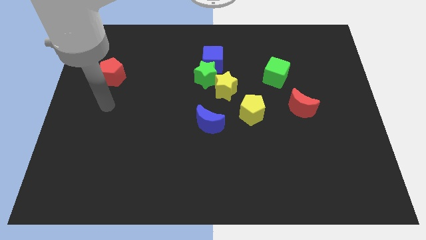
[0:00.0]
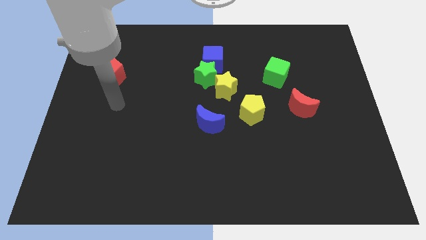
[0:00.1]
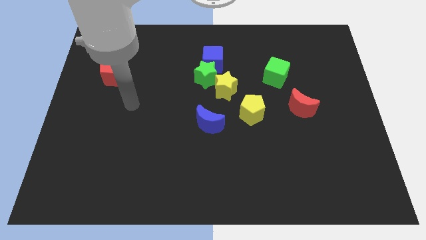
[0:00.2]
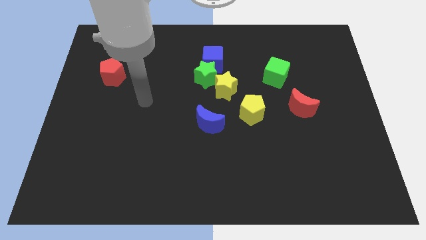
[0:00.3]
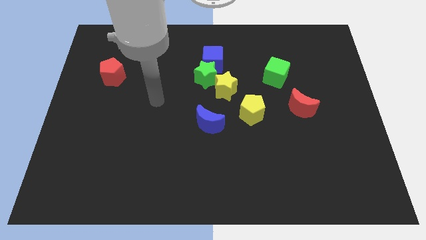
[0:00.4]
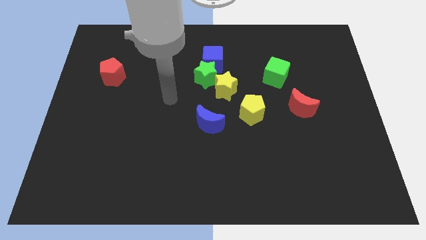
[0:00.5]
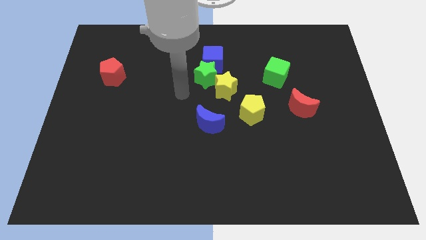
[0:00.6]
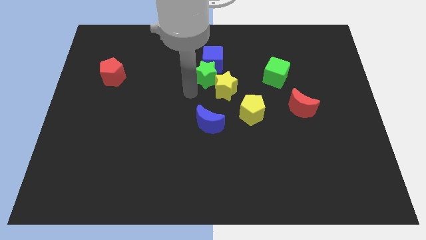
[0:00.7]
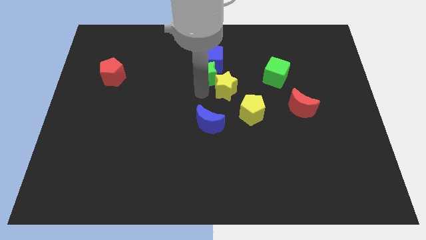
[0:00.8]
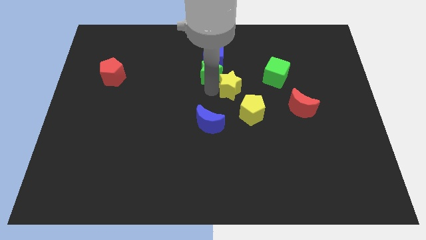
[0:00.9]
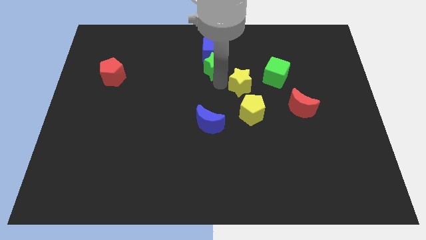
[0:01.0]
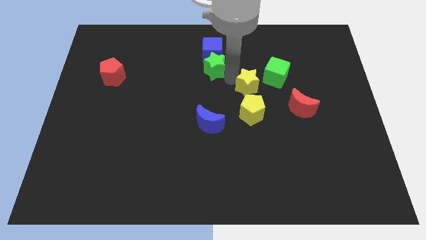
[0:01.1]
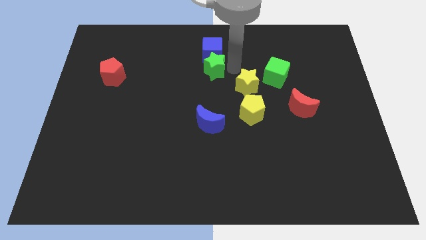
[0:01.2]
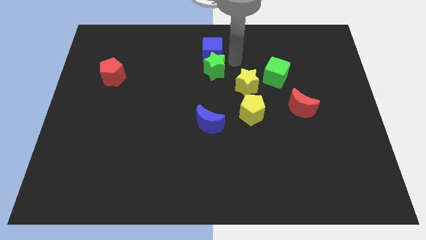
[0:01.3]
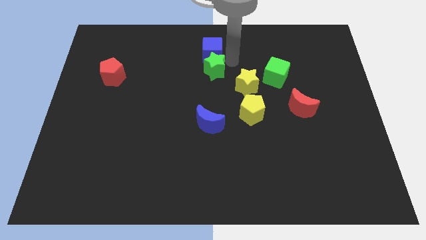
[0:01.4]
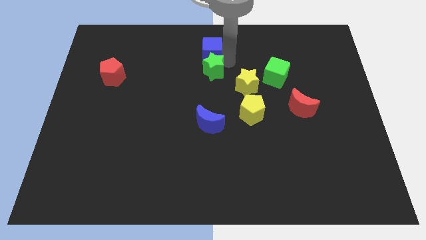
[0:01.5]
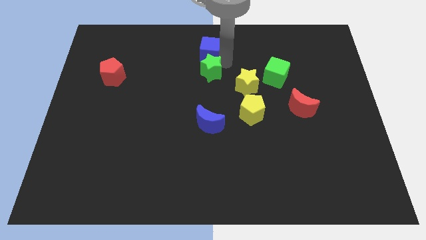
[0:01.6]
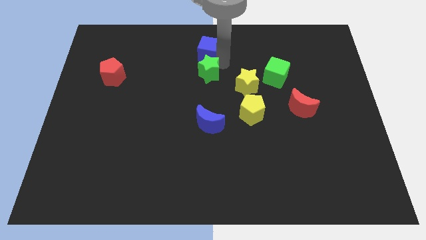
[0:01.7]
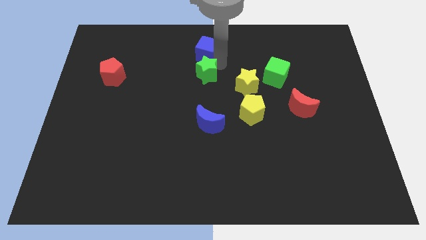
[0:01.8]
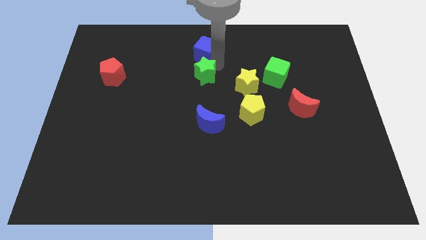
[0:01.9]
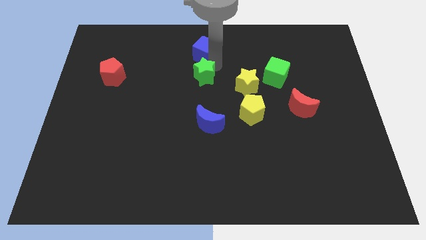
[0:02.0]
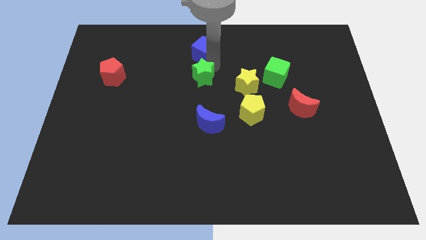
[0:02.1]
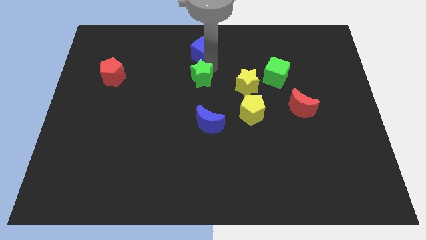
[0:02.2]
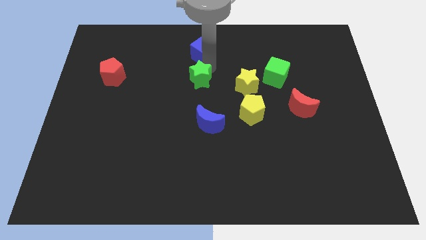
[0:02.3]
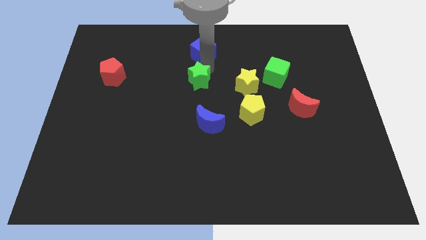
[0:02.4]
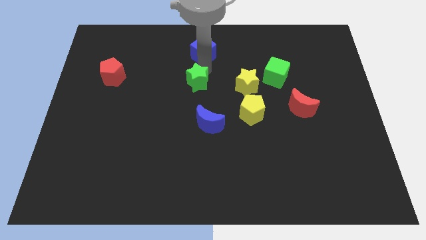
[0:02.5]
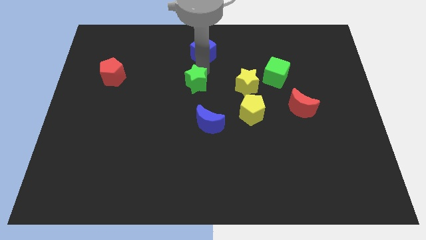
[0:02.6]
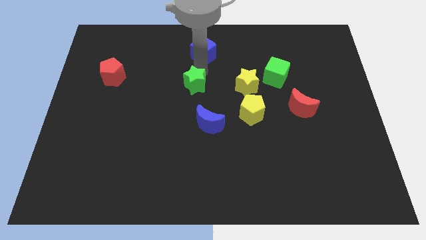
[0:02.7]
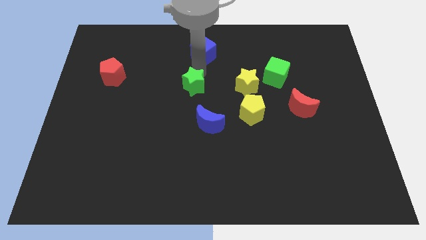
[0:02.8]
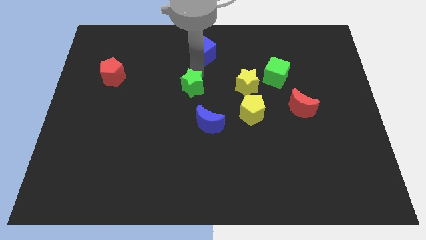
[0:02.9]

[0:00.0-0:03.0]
separate the green star from the blue cube and yellow star

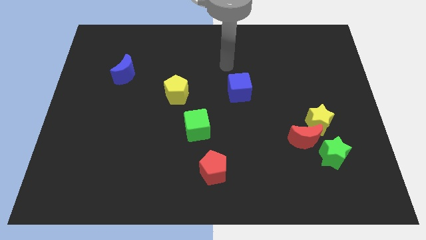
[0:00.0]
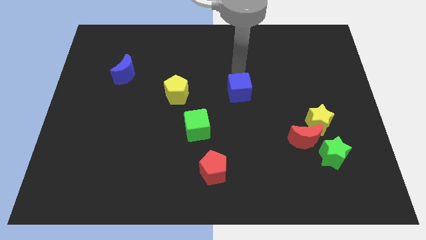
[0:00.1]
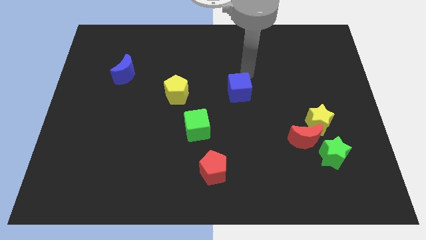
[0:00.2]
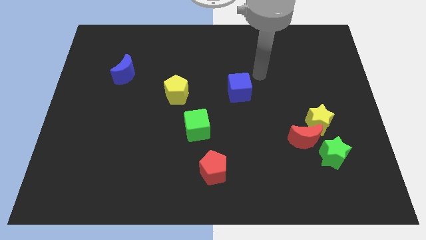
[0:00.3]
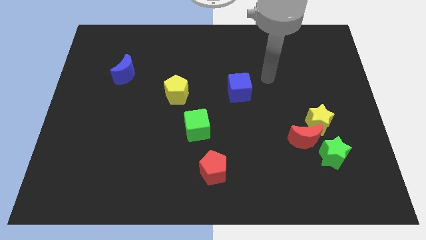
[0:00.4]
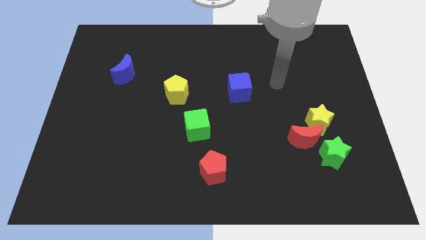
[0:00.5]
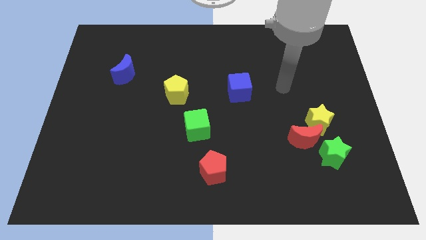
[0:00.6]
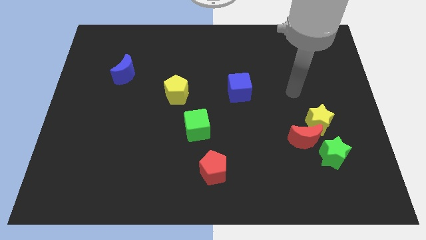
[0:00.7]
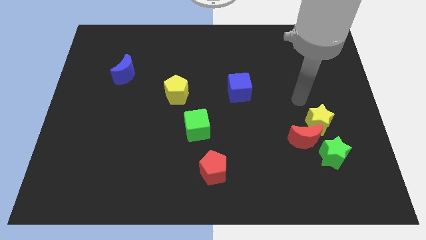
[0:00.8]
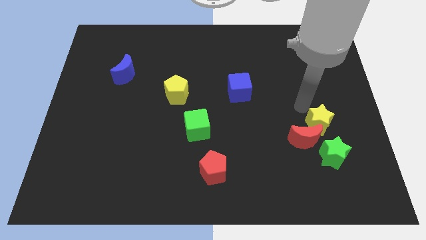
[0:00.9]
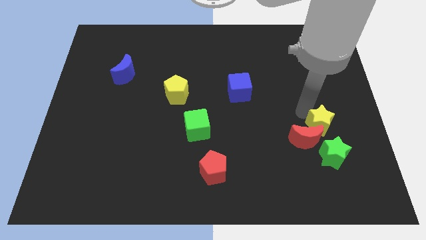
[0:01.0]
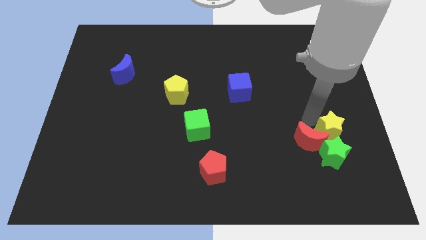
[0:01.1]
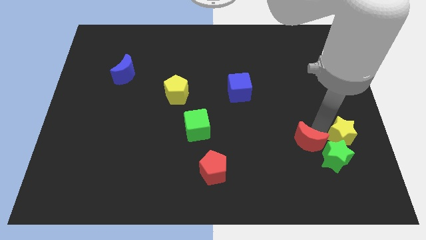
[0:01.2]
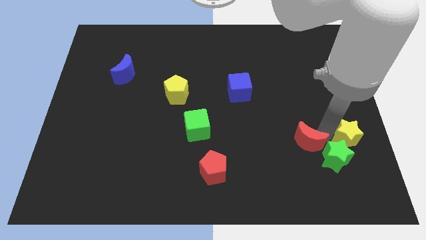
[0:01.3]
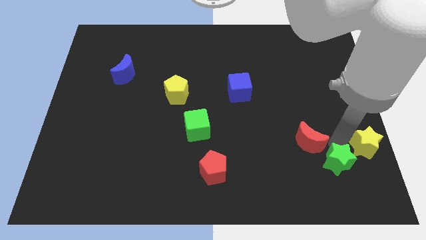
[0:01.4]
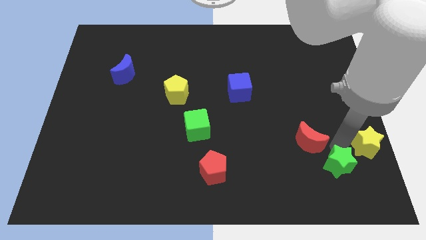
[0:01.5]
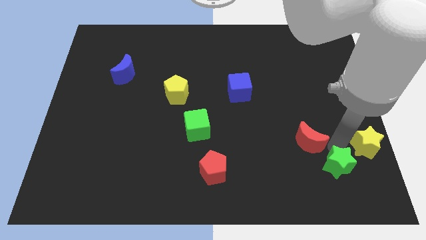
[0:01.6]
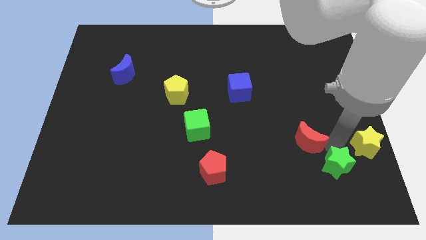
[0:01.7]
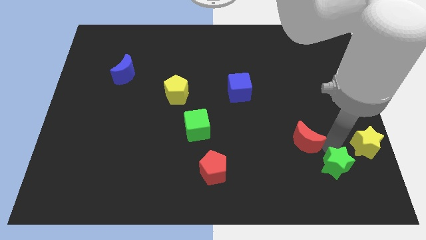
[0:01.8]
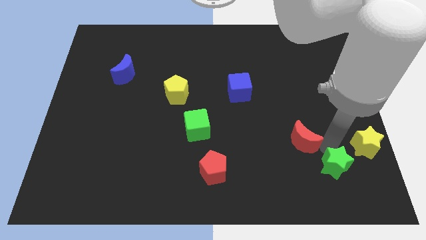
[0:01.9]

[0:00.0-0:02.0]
pull the red moon apart from the yellow star and green star

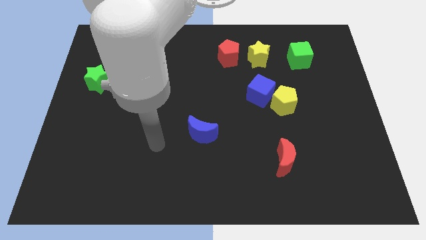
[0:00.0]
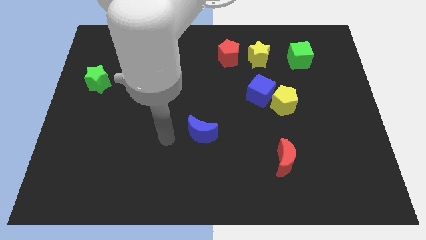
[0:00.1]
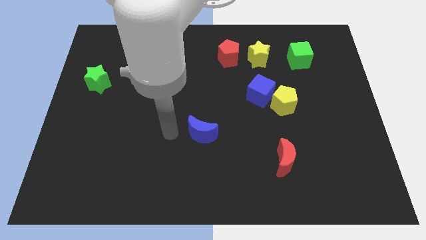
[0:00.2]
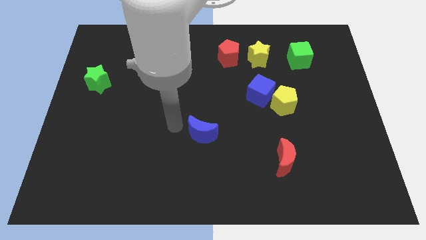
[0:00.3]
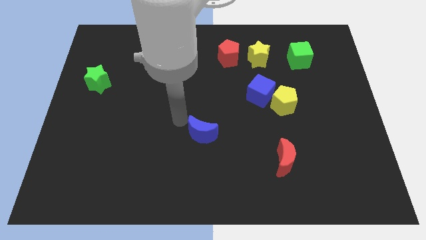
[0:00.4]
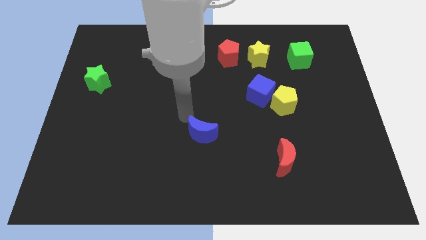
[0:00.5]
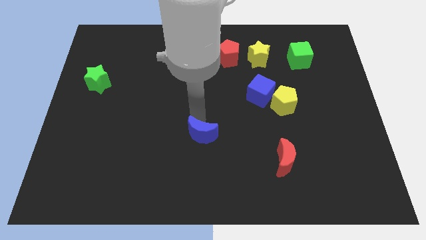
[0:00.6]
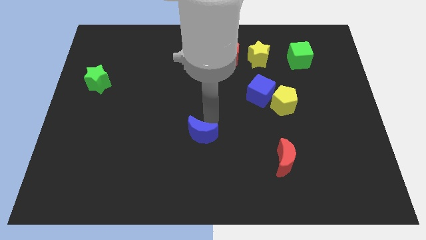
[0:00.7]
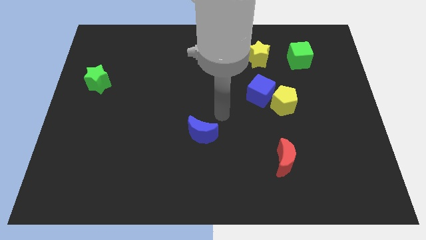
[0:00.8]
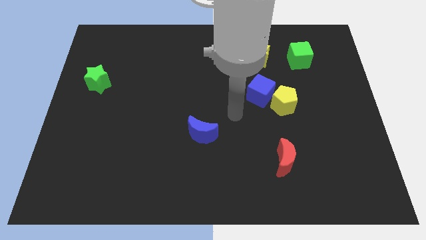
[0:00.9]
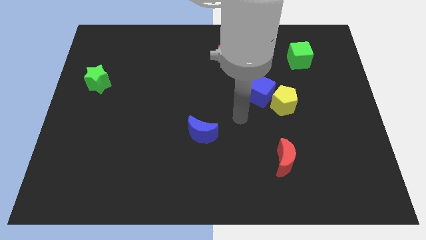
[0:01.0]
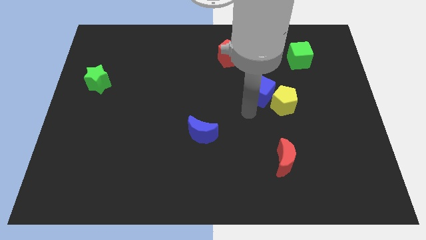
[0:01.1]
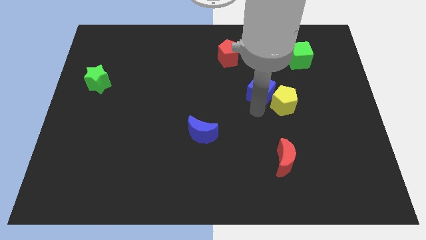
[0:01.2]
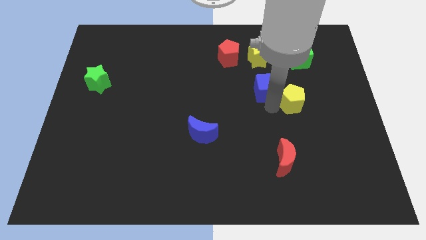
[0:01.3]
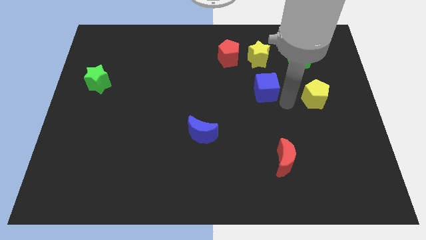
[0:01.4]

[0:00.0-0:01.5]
move the blue cube away from the yellow pentagon

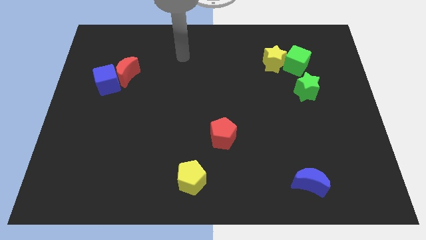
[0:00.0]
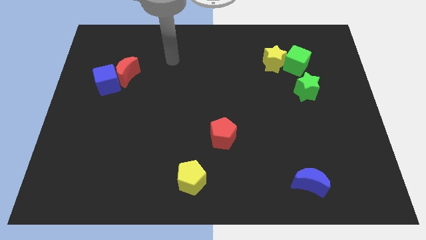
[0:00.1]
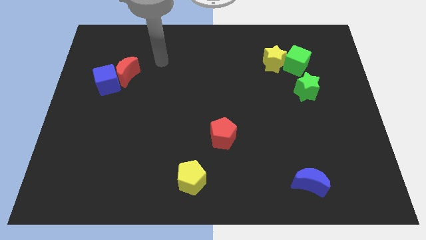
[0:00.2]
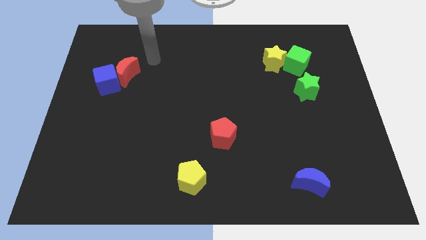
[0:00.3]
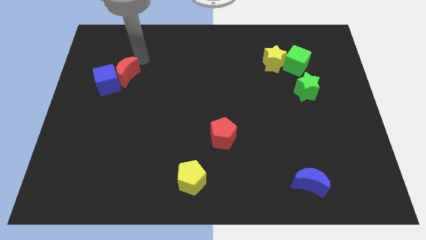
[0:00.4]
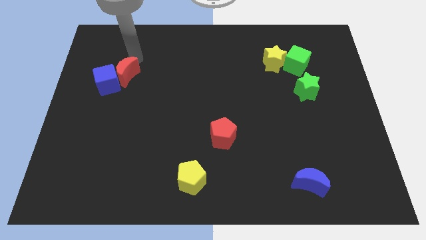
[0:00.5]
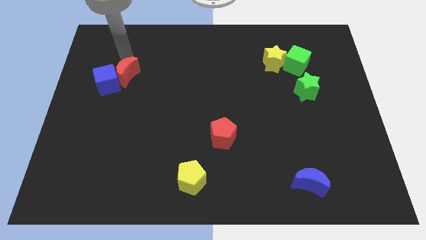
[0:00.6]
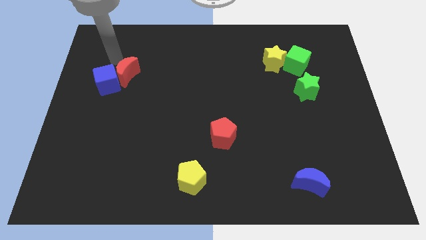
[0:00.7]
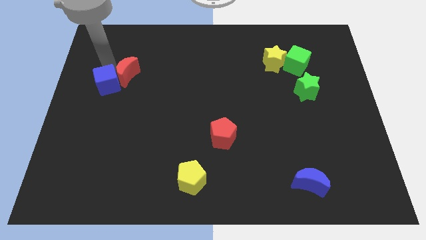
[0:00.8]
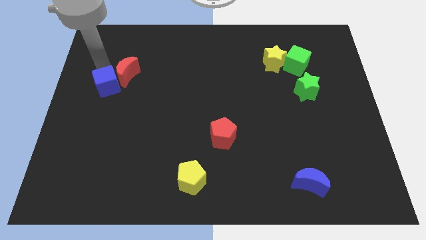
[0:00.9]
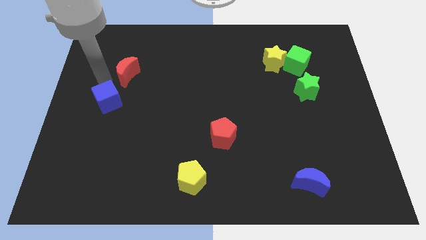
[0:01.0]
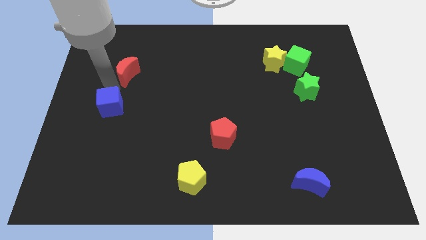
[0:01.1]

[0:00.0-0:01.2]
separate the red moon from the blue cube

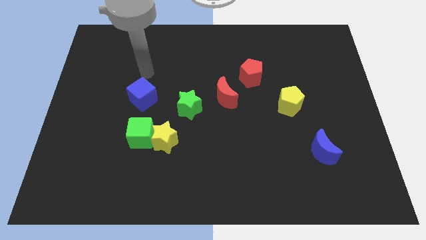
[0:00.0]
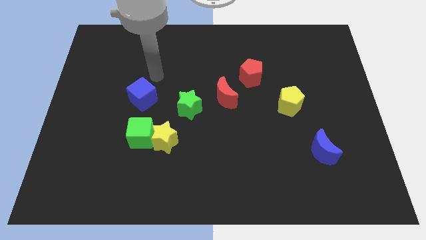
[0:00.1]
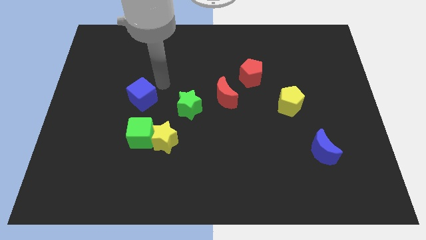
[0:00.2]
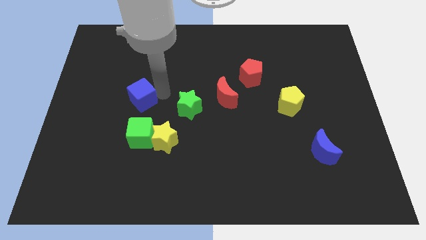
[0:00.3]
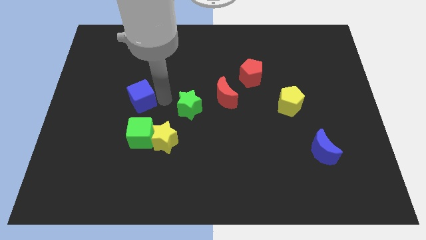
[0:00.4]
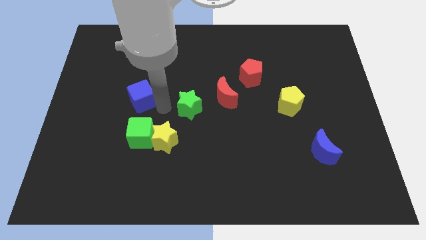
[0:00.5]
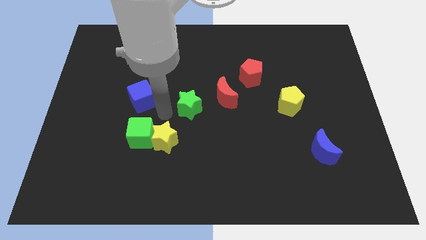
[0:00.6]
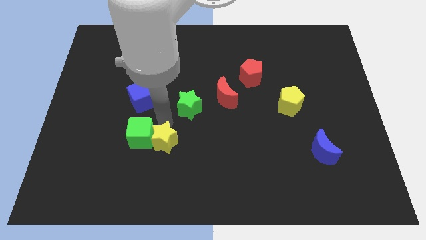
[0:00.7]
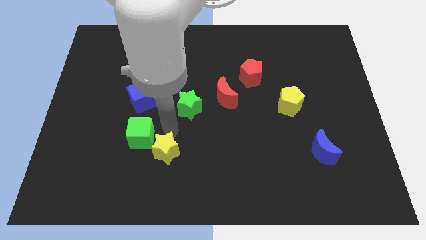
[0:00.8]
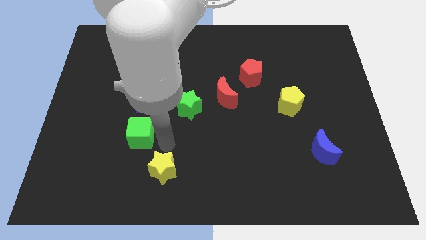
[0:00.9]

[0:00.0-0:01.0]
pull the green cube apart from the yellow star

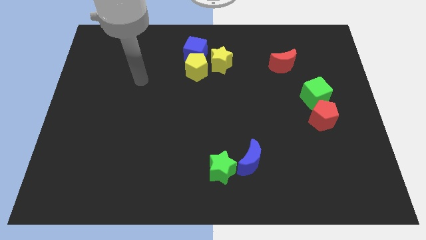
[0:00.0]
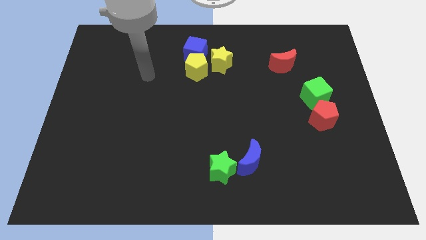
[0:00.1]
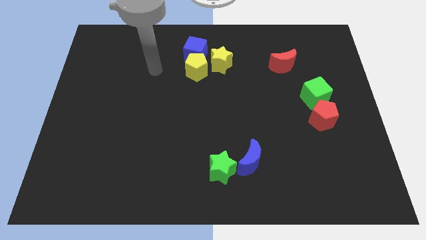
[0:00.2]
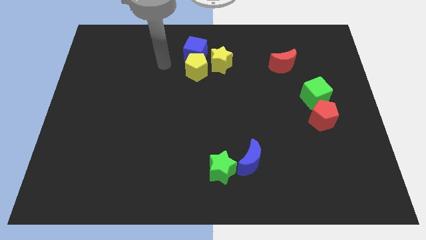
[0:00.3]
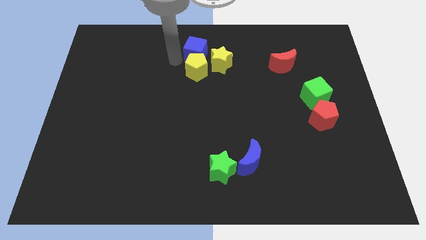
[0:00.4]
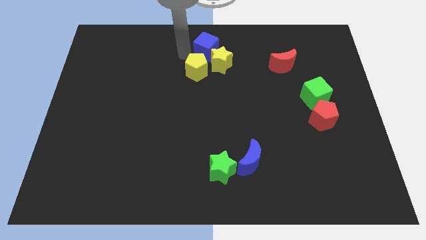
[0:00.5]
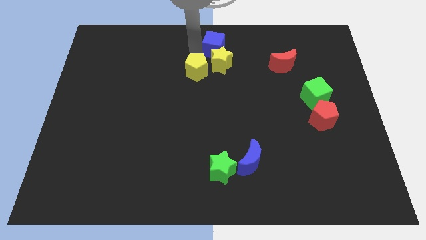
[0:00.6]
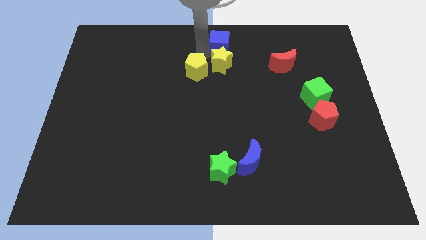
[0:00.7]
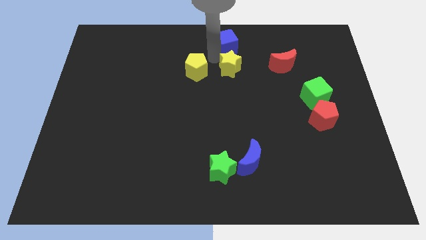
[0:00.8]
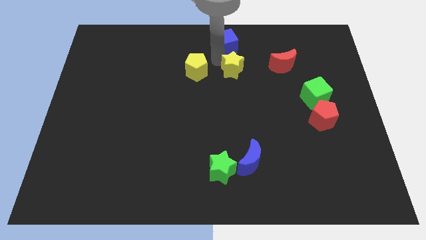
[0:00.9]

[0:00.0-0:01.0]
move the yellow pentagon away from the blue cube and yellow star
